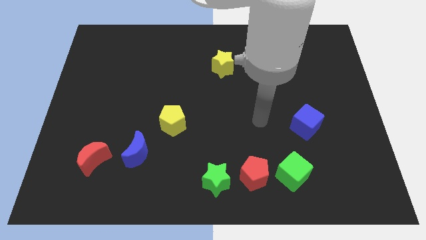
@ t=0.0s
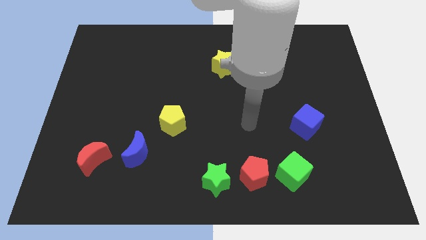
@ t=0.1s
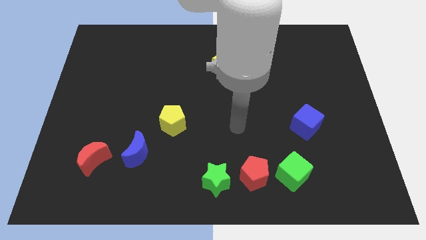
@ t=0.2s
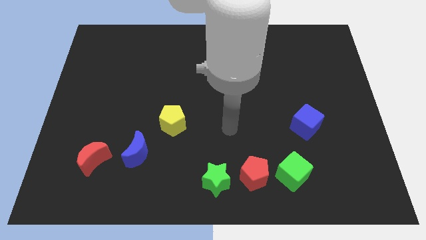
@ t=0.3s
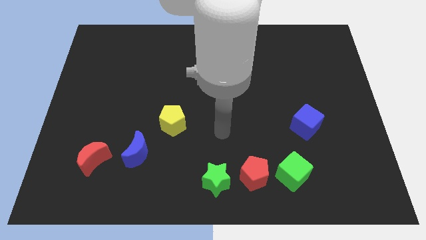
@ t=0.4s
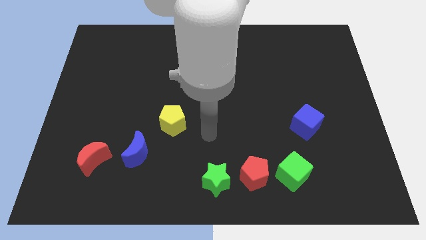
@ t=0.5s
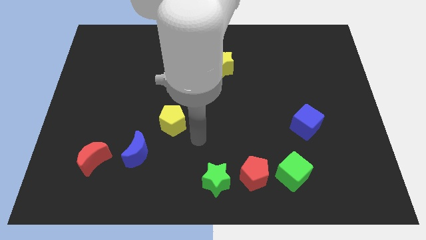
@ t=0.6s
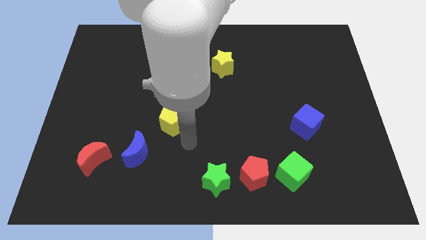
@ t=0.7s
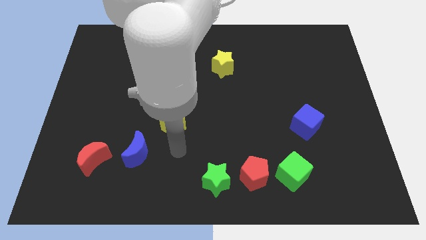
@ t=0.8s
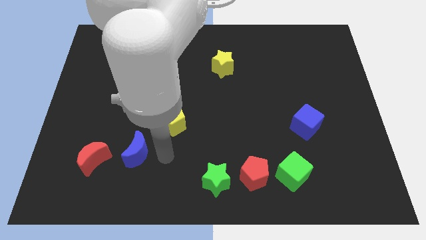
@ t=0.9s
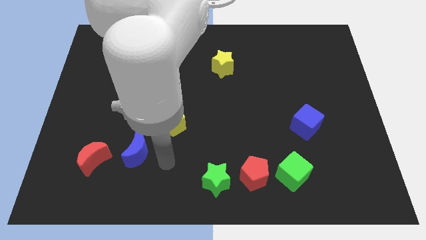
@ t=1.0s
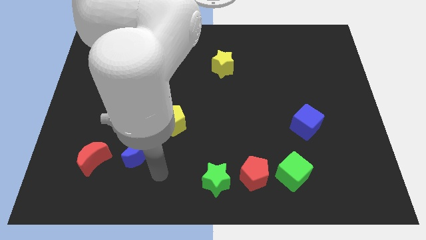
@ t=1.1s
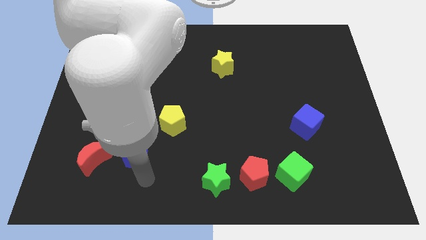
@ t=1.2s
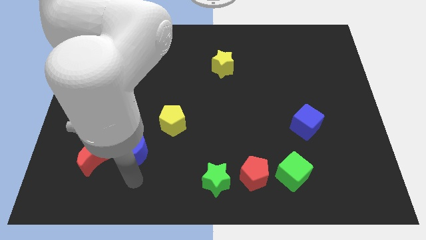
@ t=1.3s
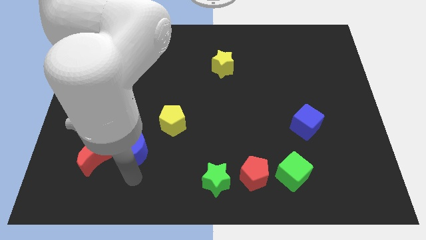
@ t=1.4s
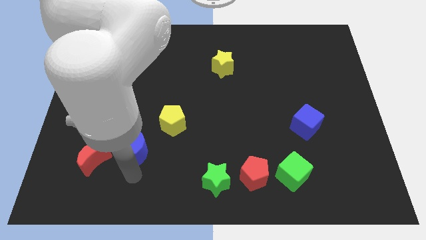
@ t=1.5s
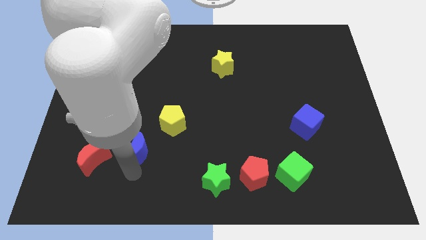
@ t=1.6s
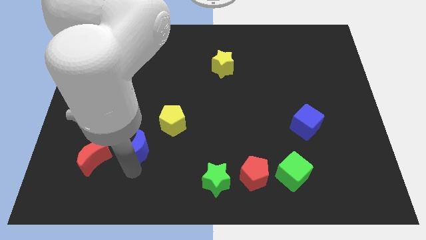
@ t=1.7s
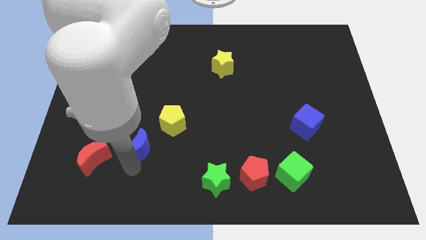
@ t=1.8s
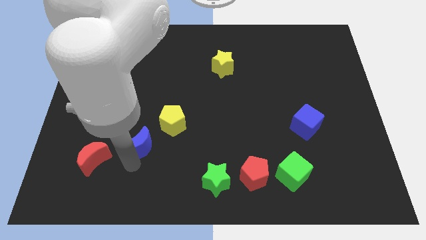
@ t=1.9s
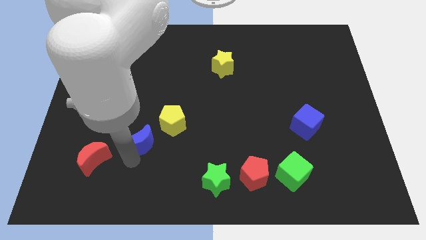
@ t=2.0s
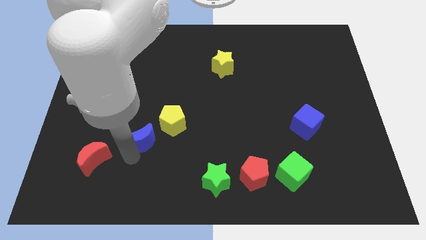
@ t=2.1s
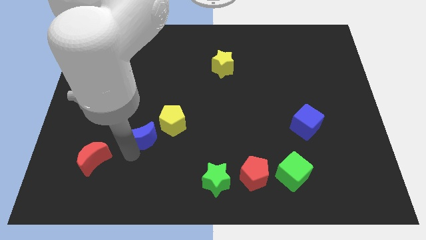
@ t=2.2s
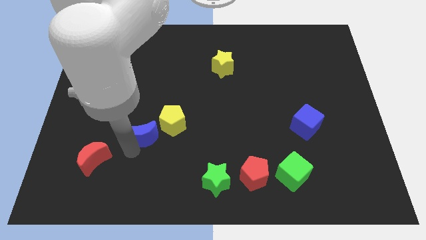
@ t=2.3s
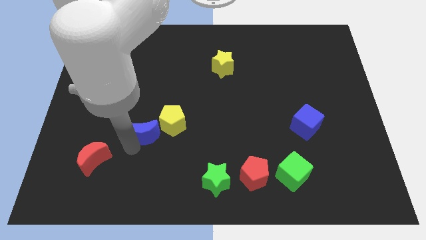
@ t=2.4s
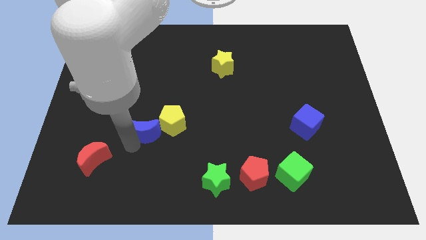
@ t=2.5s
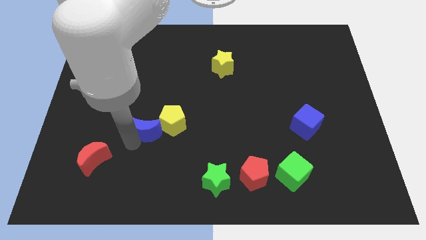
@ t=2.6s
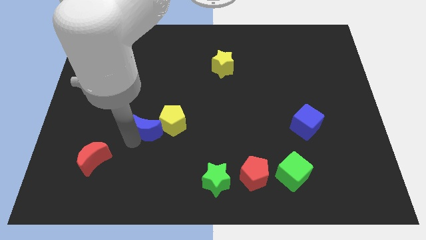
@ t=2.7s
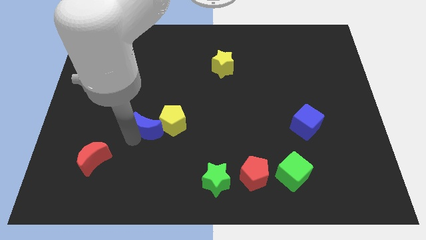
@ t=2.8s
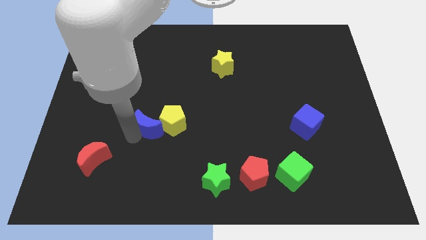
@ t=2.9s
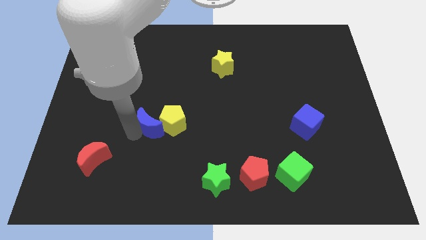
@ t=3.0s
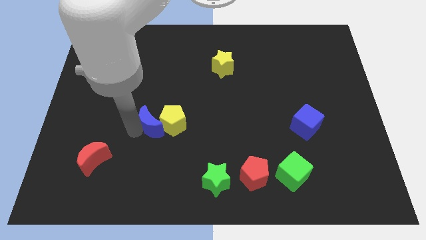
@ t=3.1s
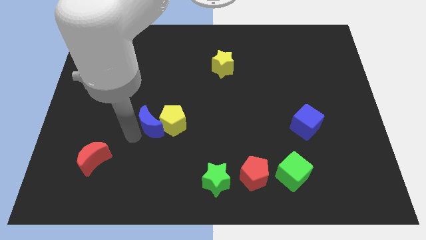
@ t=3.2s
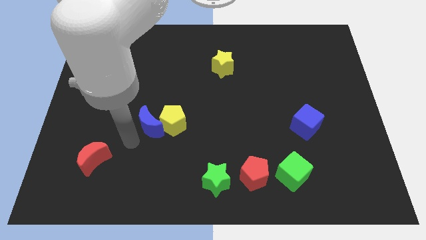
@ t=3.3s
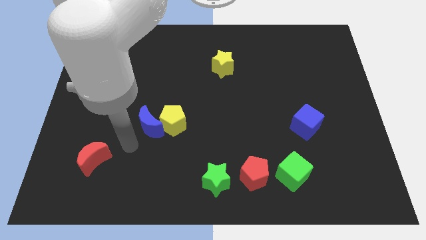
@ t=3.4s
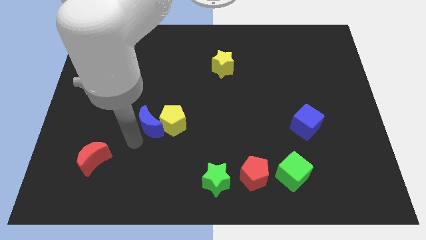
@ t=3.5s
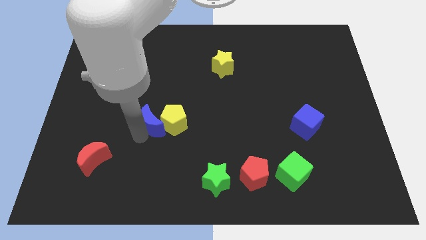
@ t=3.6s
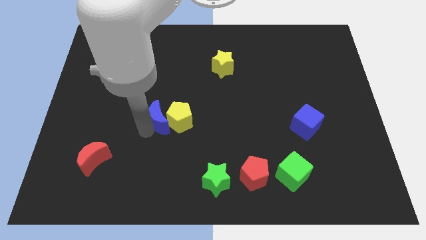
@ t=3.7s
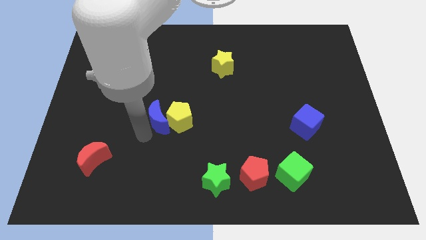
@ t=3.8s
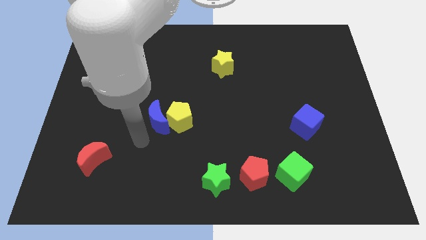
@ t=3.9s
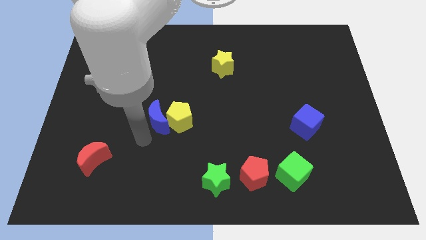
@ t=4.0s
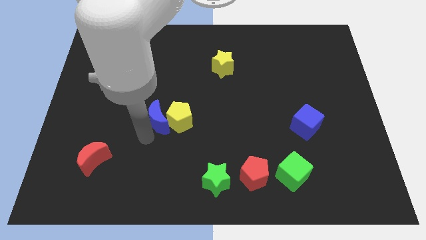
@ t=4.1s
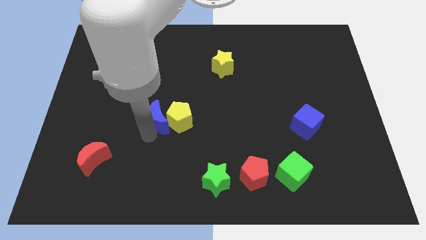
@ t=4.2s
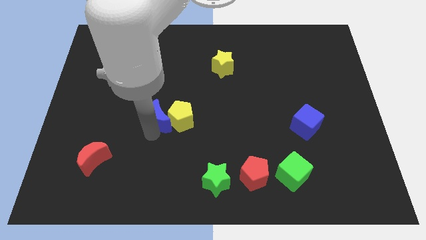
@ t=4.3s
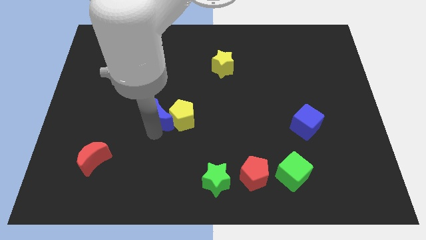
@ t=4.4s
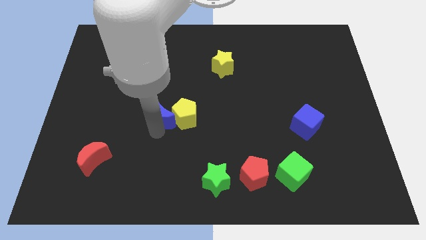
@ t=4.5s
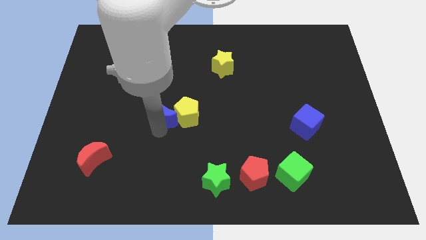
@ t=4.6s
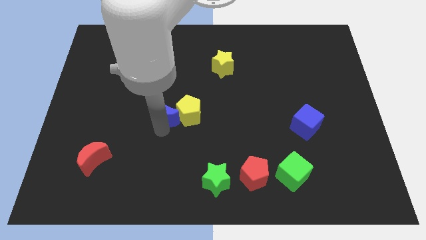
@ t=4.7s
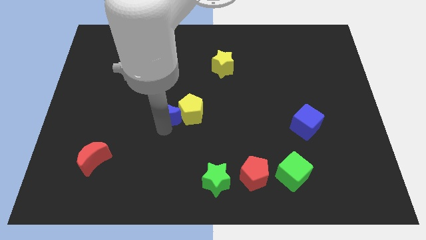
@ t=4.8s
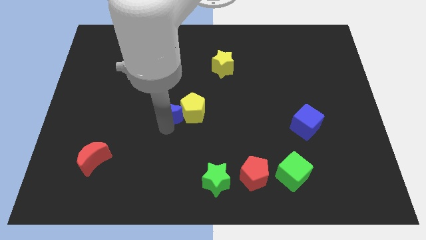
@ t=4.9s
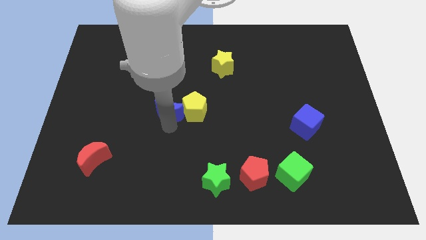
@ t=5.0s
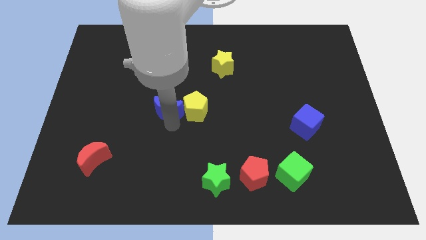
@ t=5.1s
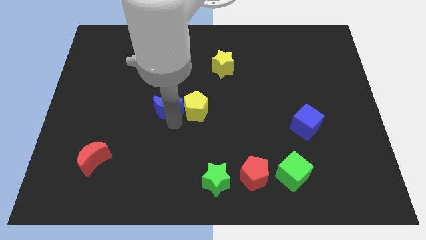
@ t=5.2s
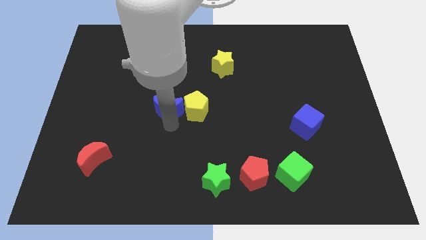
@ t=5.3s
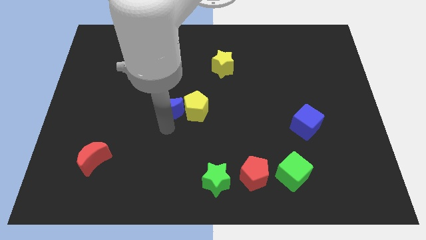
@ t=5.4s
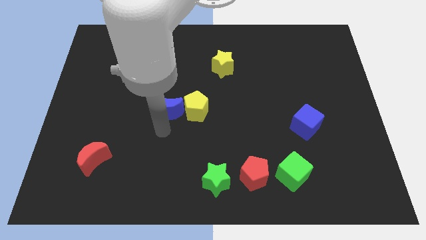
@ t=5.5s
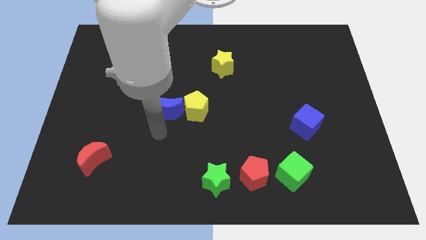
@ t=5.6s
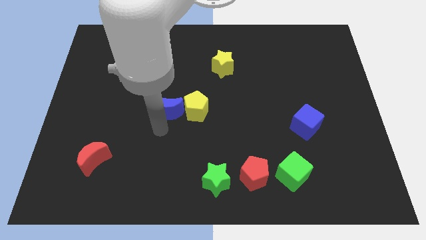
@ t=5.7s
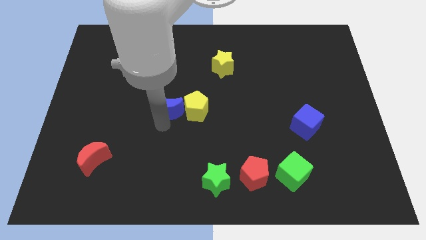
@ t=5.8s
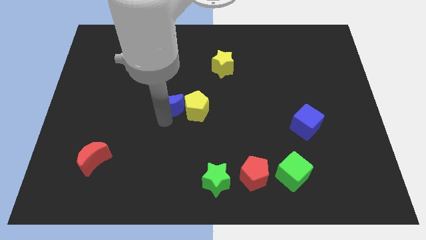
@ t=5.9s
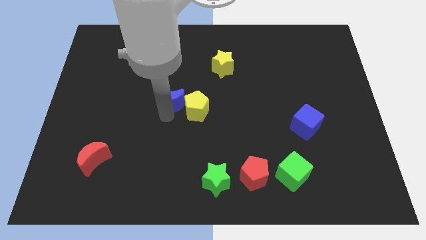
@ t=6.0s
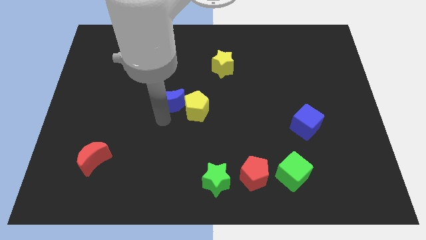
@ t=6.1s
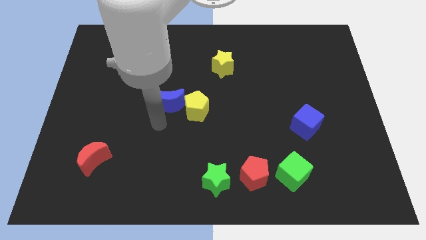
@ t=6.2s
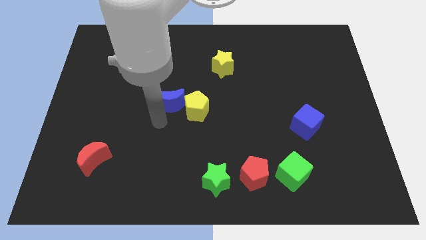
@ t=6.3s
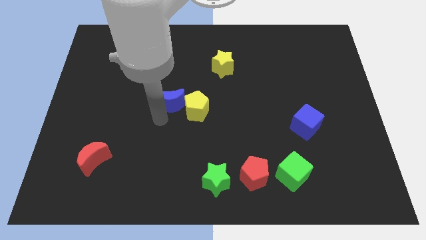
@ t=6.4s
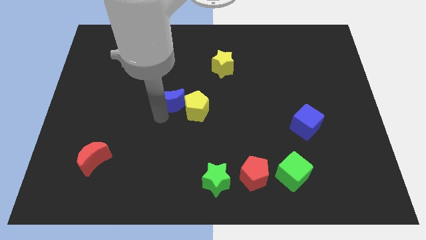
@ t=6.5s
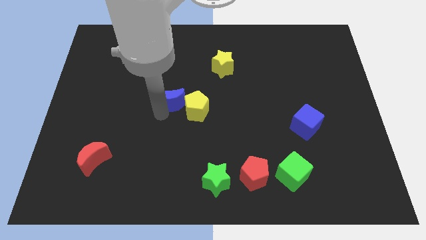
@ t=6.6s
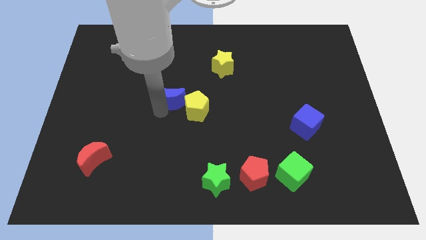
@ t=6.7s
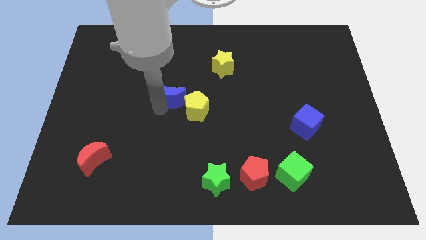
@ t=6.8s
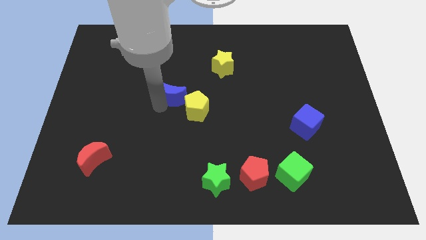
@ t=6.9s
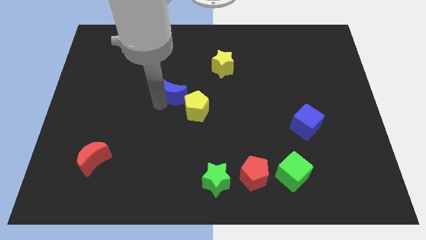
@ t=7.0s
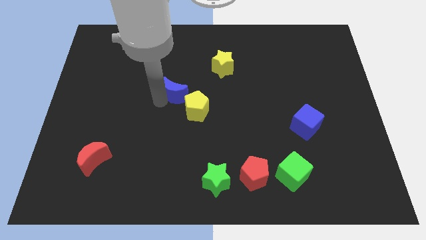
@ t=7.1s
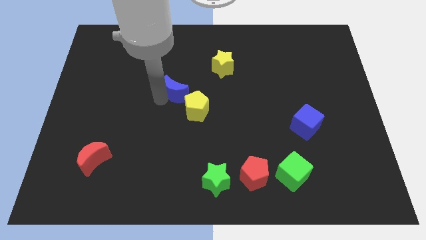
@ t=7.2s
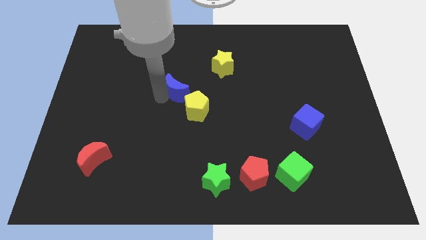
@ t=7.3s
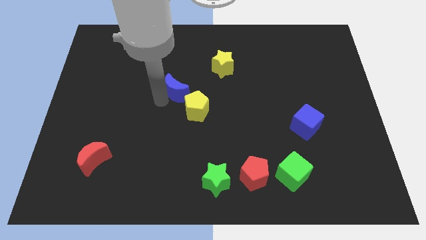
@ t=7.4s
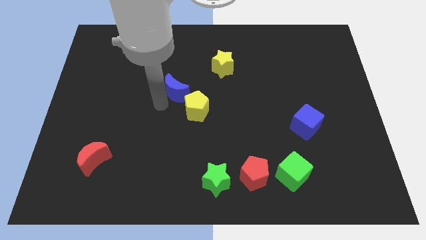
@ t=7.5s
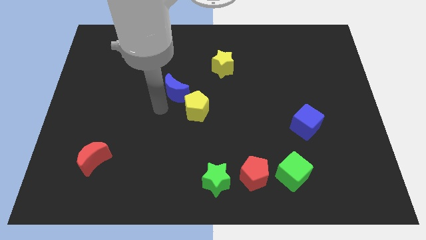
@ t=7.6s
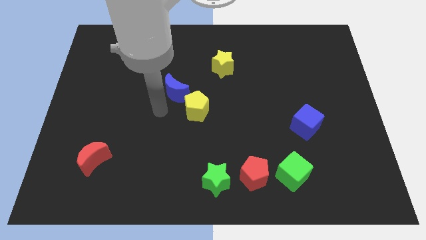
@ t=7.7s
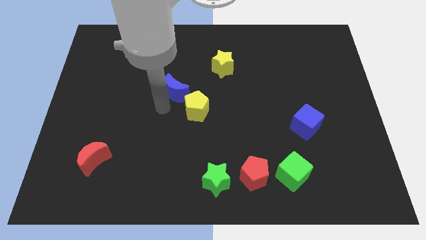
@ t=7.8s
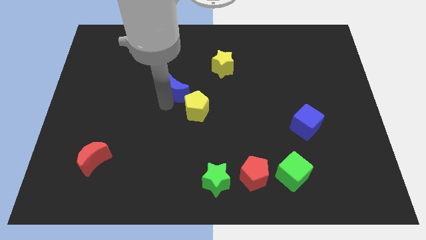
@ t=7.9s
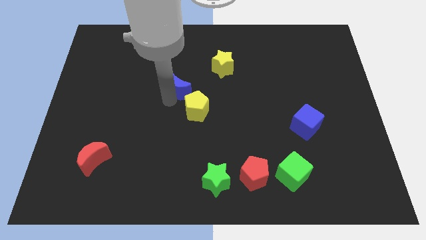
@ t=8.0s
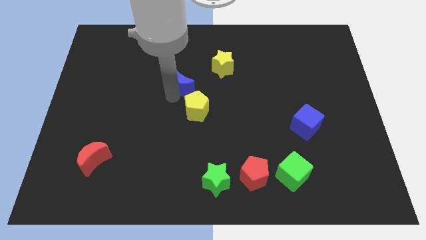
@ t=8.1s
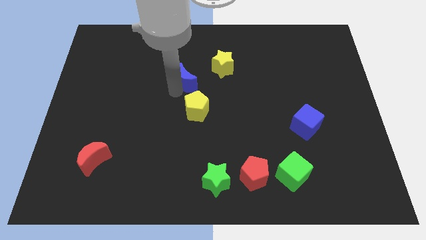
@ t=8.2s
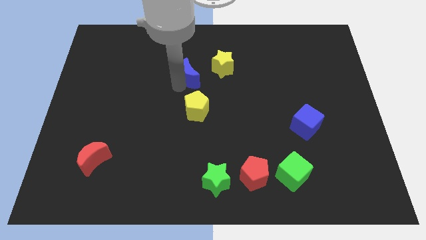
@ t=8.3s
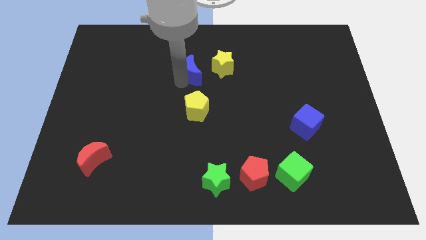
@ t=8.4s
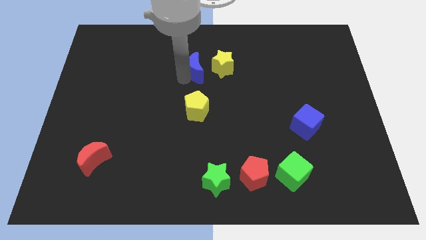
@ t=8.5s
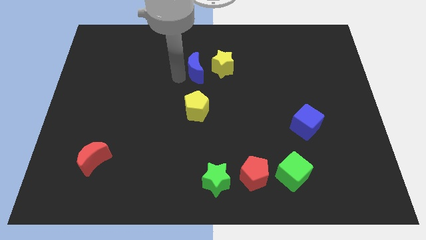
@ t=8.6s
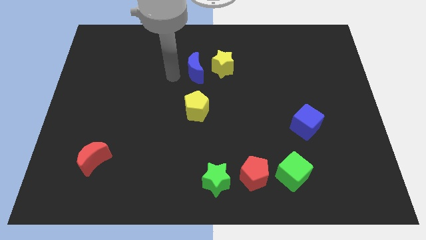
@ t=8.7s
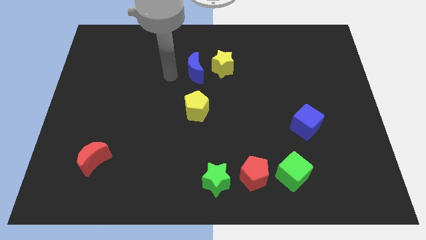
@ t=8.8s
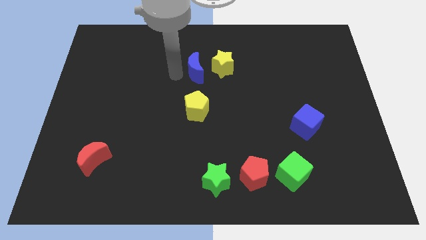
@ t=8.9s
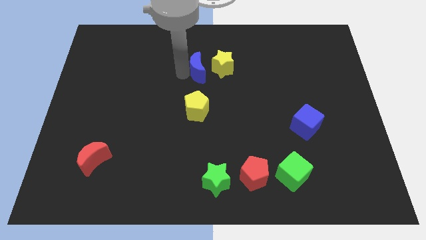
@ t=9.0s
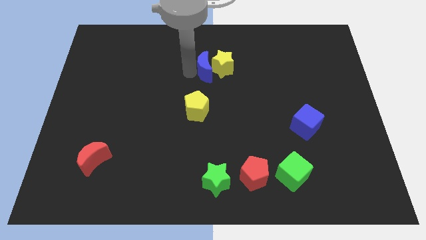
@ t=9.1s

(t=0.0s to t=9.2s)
push the blue moon towards the yellow star
